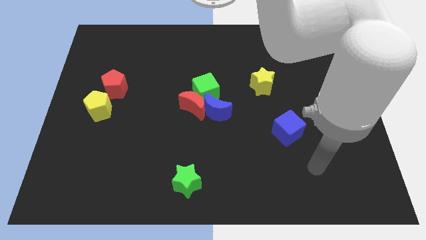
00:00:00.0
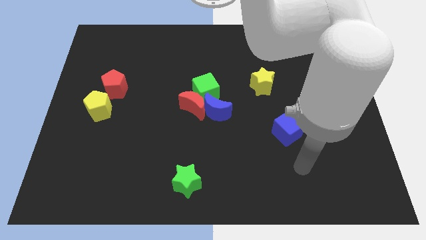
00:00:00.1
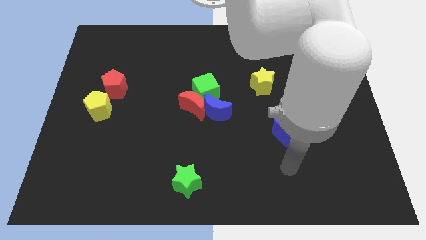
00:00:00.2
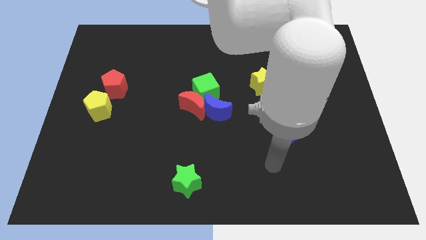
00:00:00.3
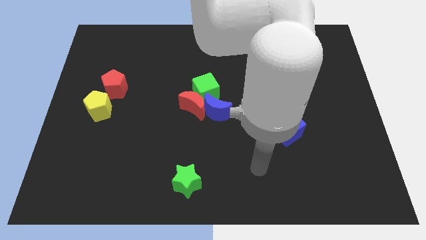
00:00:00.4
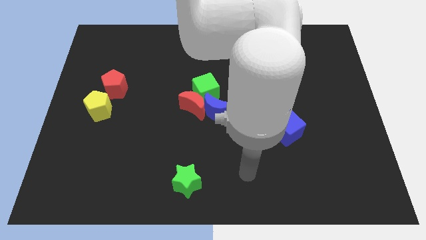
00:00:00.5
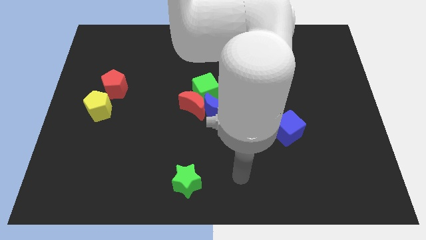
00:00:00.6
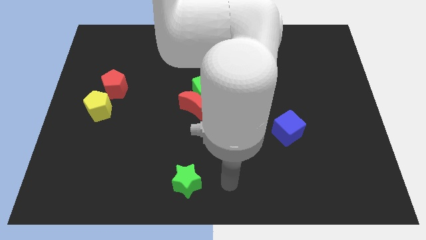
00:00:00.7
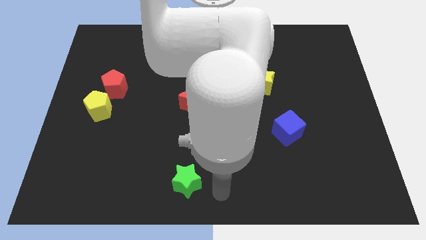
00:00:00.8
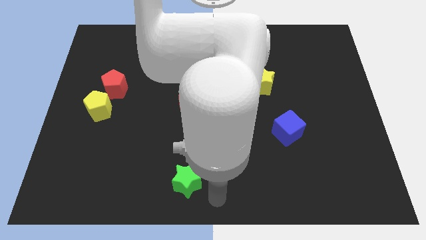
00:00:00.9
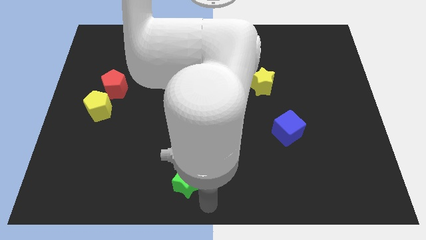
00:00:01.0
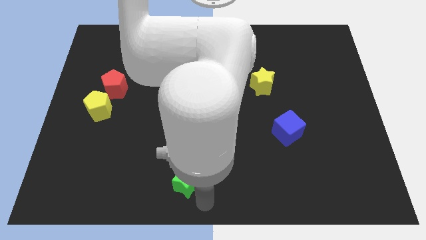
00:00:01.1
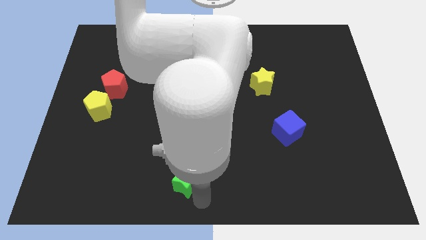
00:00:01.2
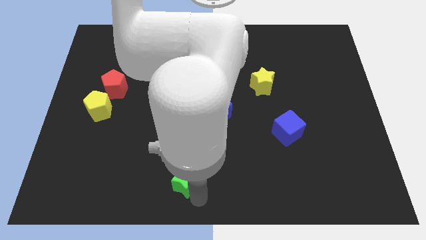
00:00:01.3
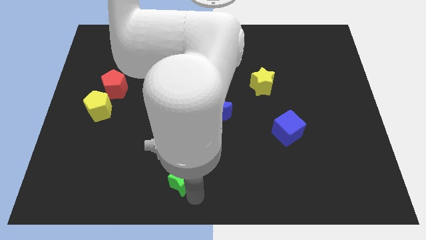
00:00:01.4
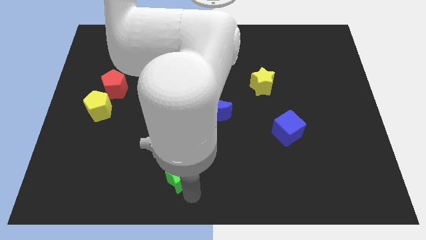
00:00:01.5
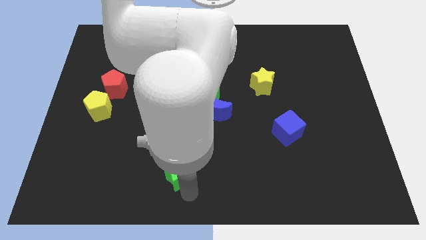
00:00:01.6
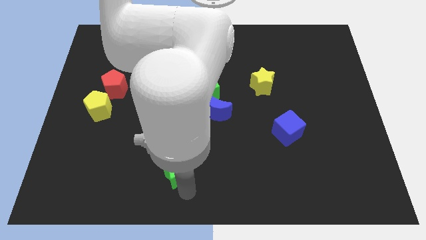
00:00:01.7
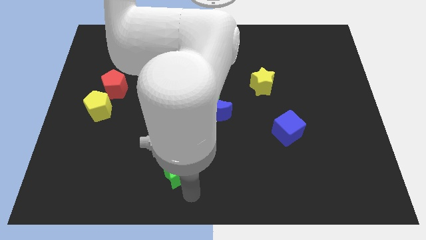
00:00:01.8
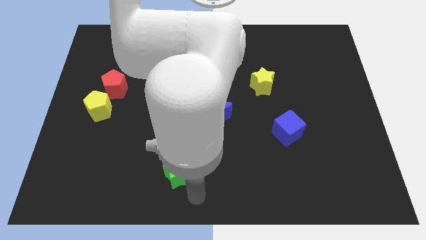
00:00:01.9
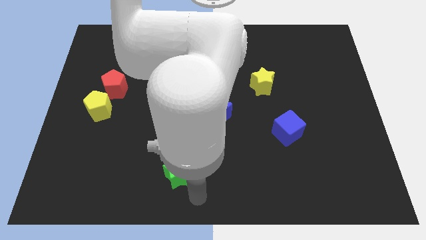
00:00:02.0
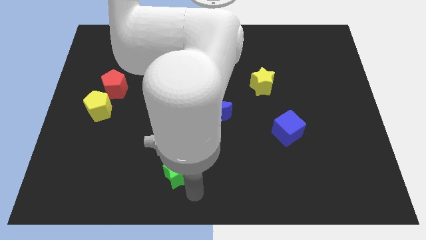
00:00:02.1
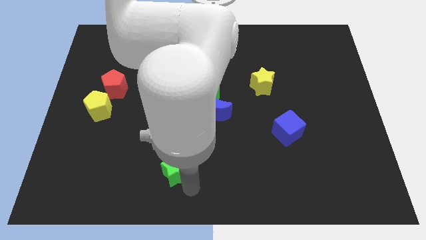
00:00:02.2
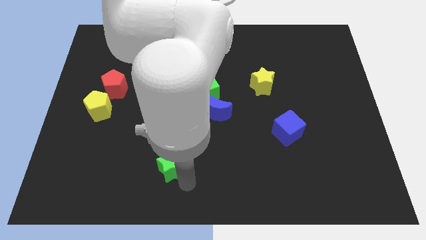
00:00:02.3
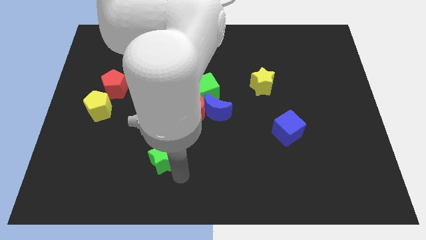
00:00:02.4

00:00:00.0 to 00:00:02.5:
push the green star upwards and then to the left a little

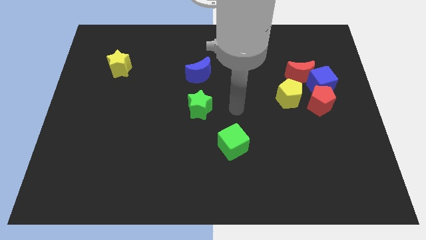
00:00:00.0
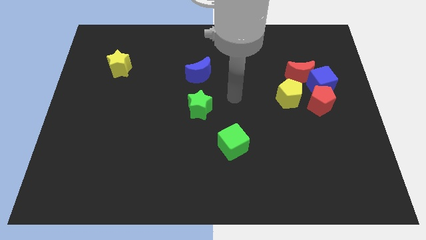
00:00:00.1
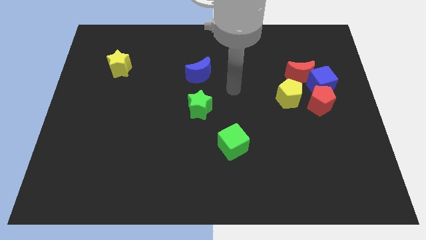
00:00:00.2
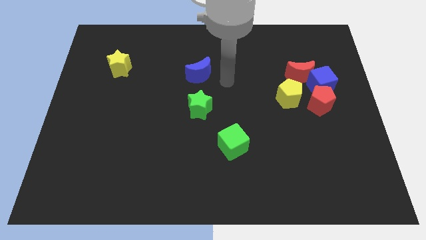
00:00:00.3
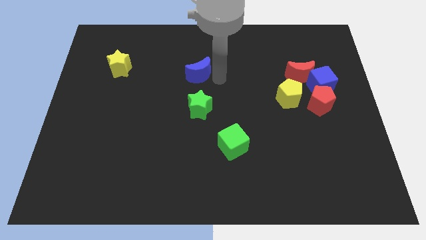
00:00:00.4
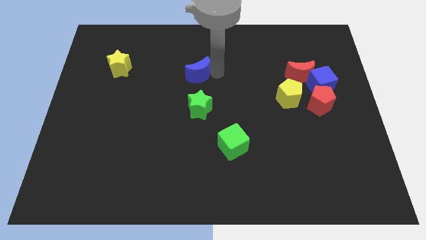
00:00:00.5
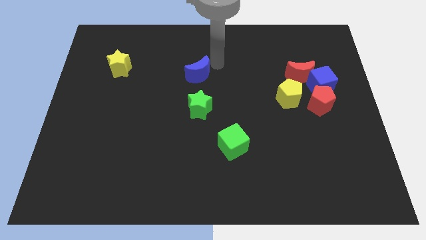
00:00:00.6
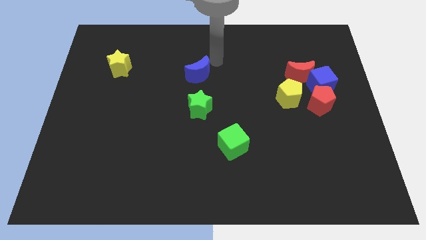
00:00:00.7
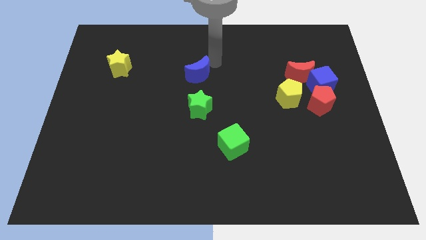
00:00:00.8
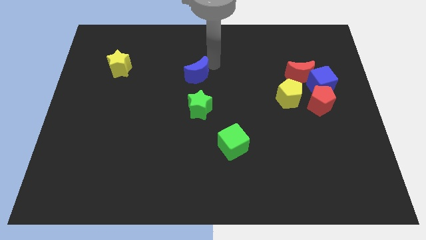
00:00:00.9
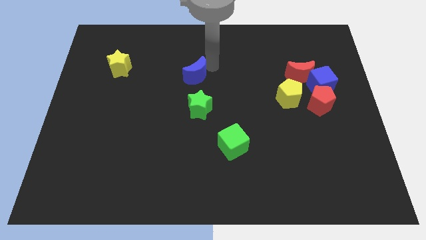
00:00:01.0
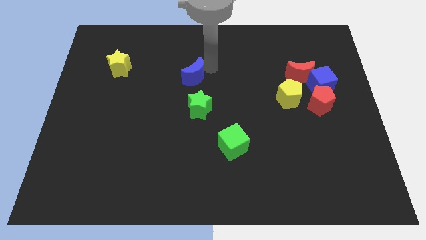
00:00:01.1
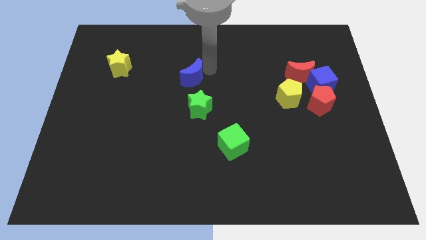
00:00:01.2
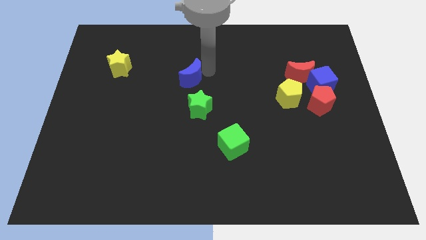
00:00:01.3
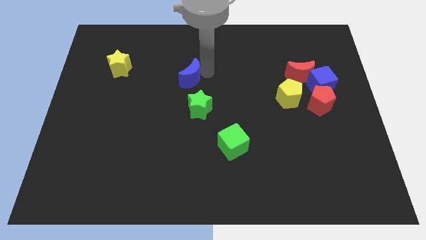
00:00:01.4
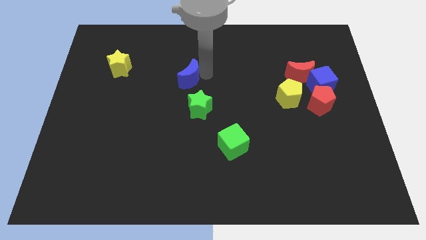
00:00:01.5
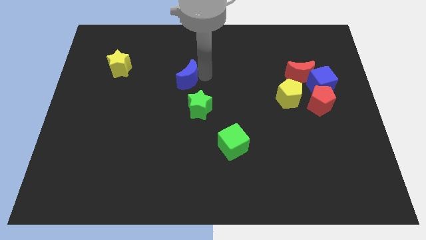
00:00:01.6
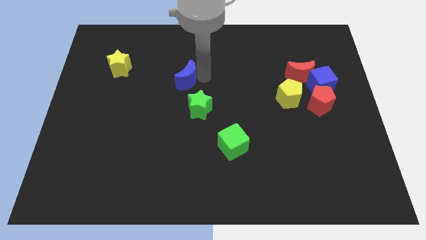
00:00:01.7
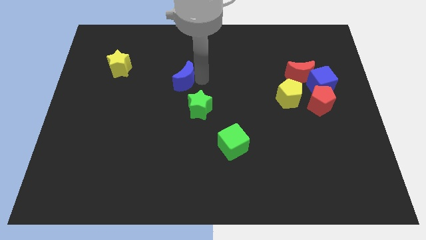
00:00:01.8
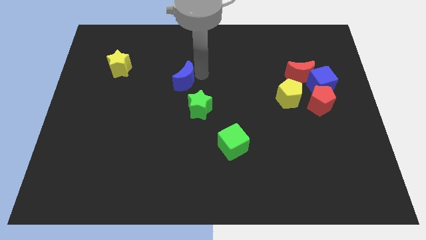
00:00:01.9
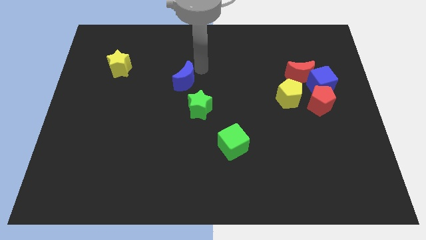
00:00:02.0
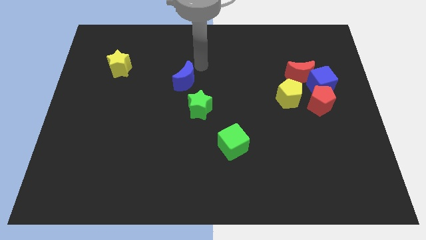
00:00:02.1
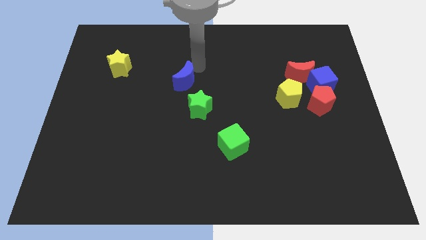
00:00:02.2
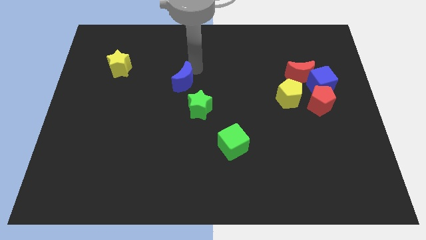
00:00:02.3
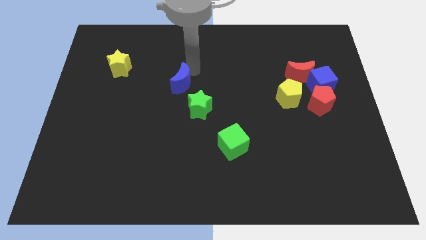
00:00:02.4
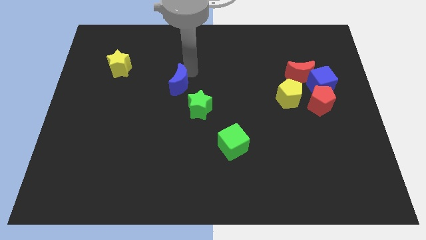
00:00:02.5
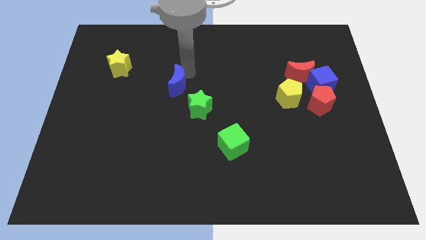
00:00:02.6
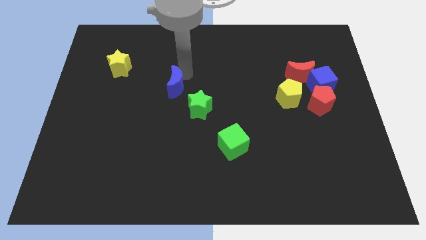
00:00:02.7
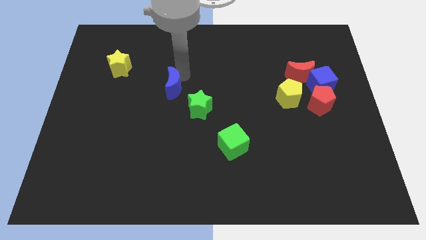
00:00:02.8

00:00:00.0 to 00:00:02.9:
move the blue moon somewhat down and then left

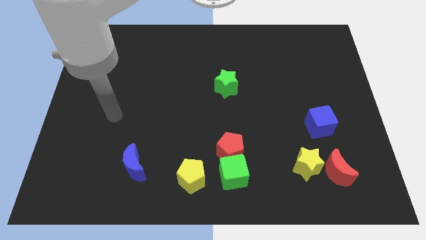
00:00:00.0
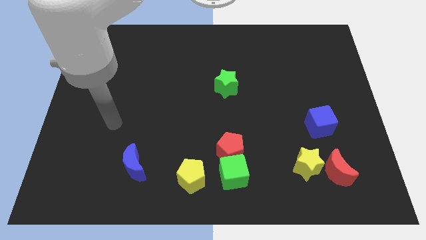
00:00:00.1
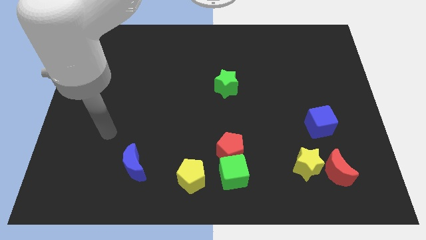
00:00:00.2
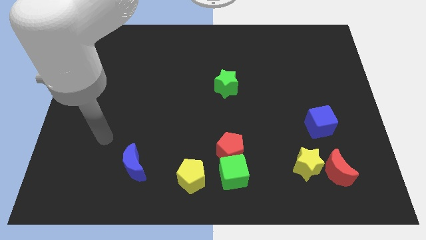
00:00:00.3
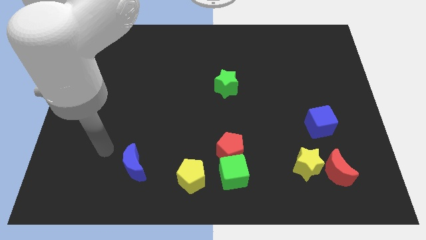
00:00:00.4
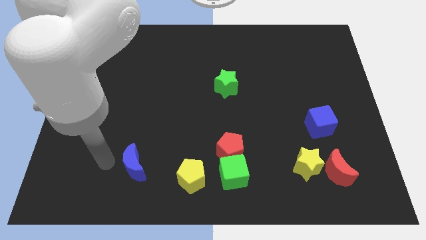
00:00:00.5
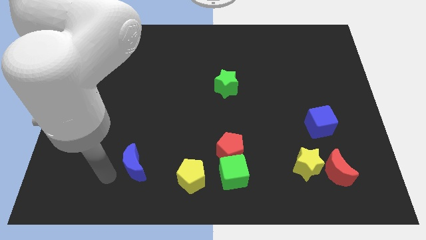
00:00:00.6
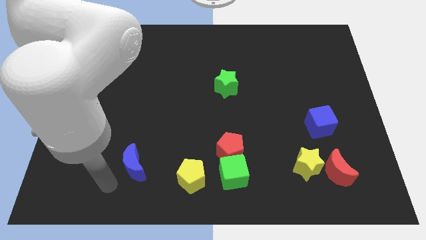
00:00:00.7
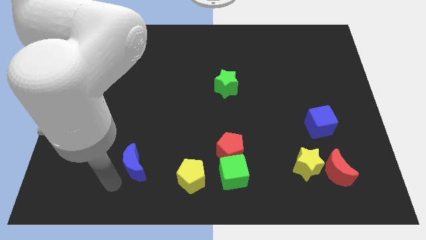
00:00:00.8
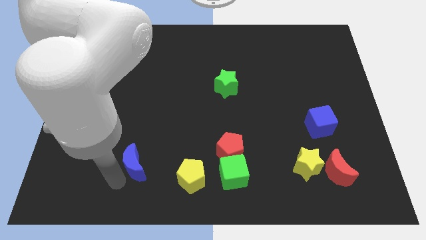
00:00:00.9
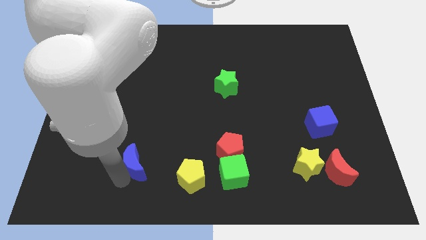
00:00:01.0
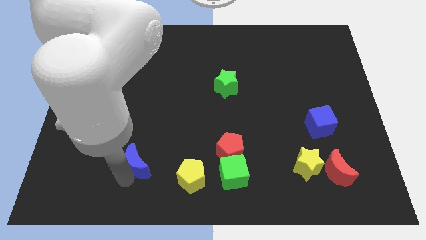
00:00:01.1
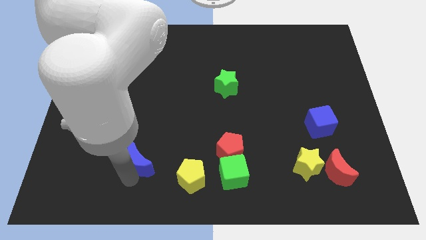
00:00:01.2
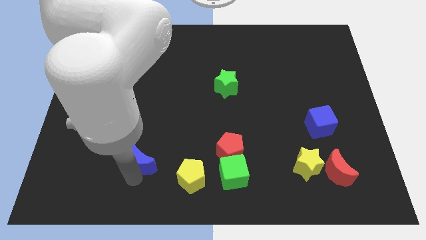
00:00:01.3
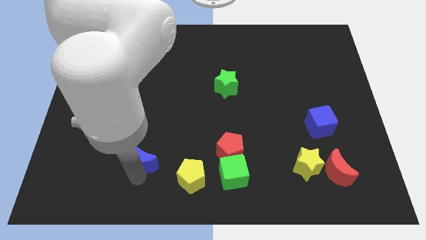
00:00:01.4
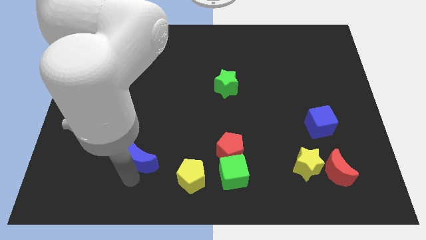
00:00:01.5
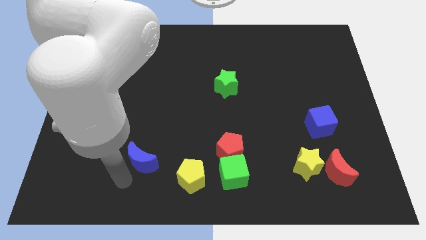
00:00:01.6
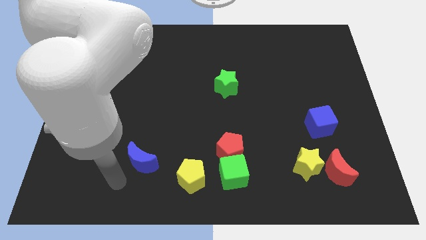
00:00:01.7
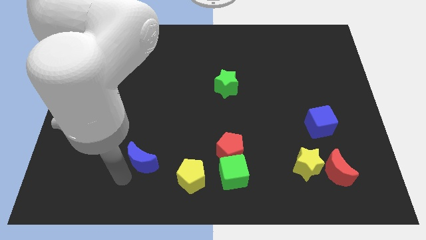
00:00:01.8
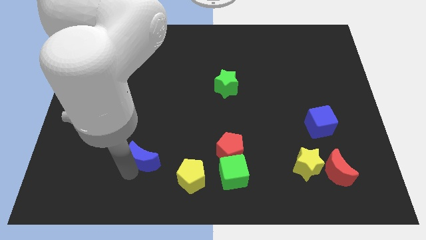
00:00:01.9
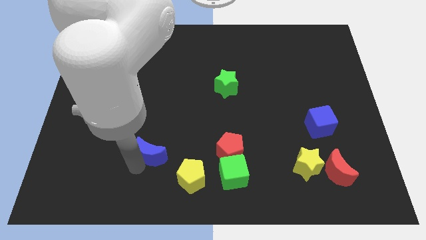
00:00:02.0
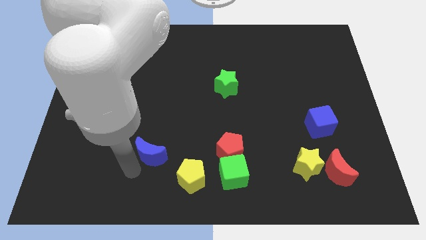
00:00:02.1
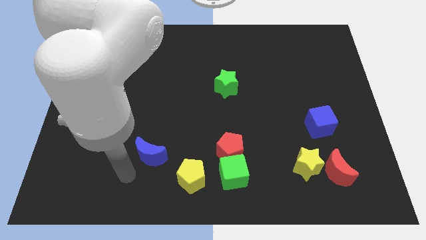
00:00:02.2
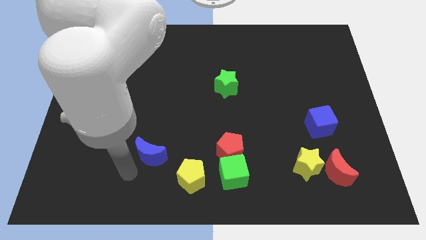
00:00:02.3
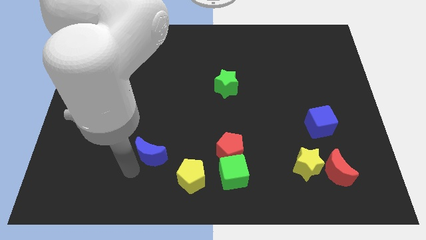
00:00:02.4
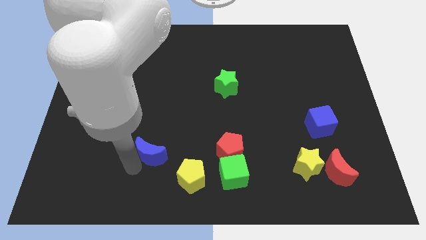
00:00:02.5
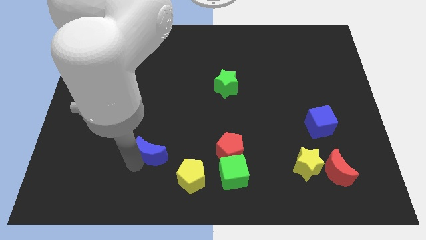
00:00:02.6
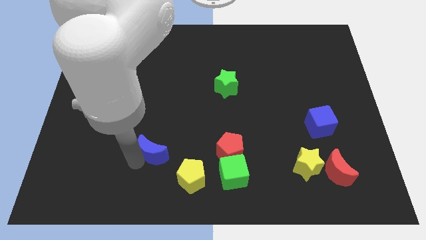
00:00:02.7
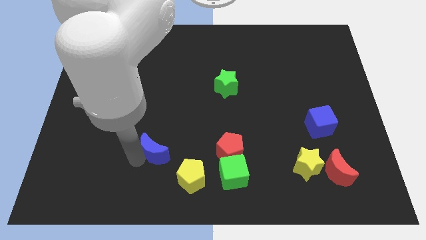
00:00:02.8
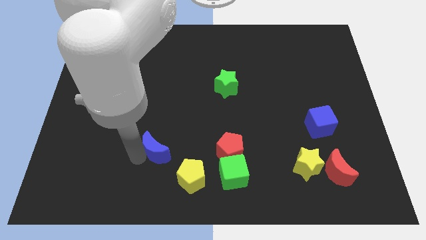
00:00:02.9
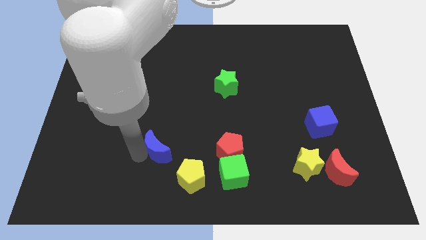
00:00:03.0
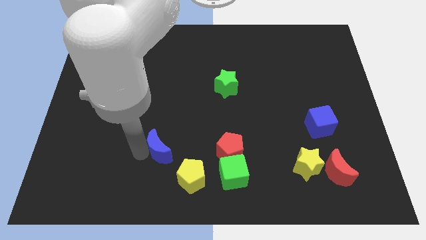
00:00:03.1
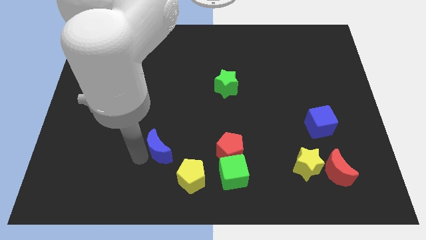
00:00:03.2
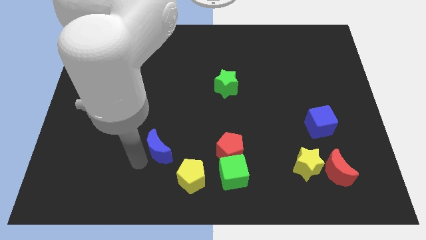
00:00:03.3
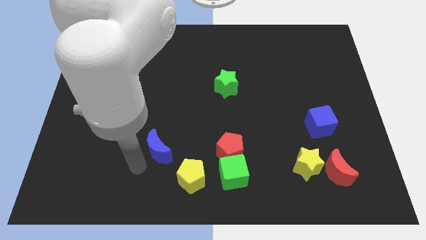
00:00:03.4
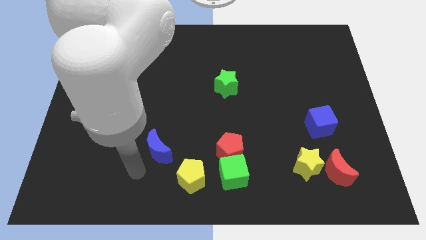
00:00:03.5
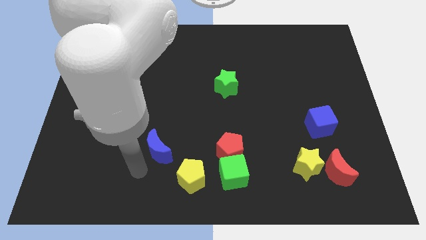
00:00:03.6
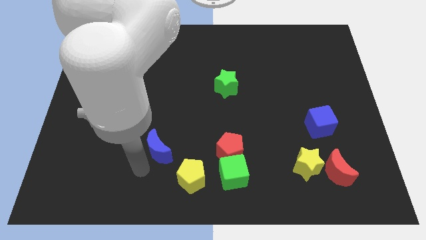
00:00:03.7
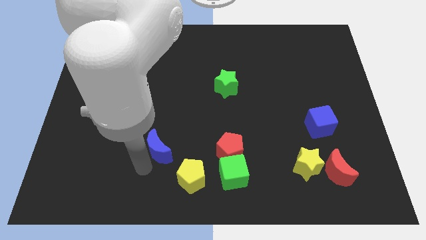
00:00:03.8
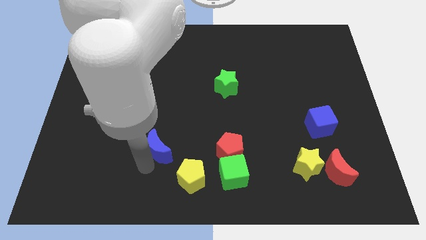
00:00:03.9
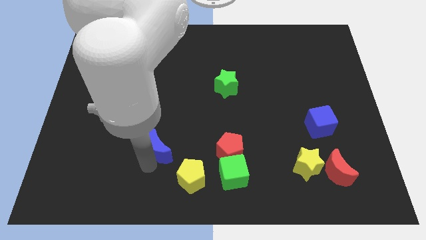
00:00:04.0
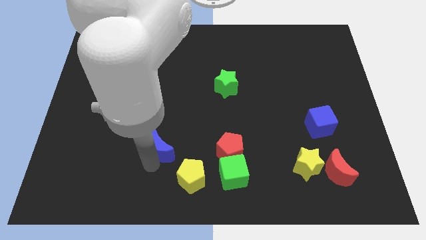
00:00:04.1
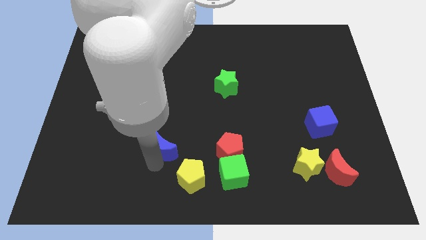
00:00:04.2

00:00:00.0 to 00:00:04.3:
slightly slide the blue moon upwards and then to the right
